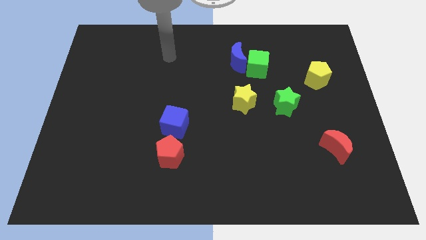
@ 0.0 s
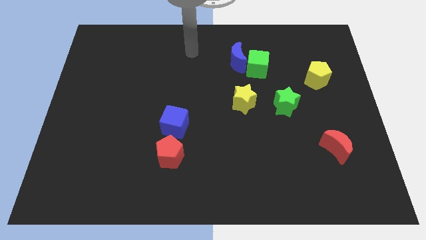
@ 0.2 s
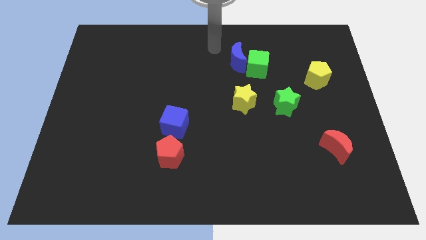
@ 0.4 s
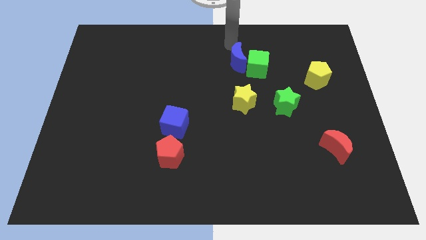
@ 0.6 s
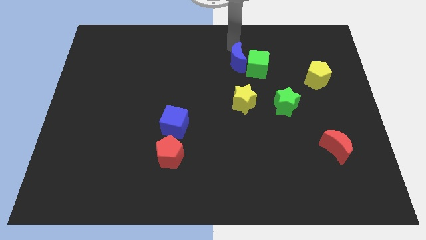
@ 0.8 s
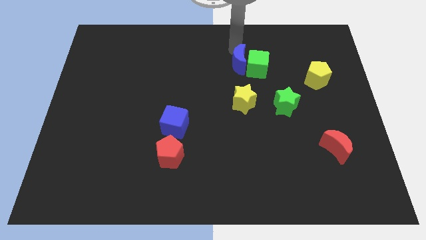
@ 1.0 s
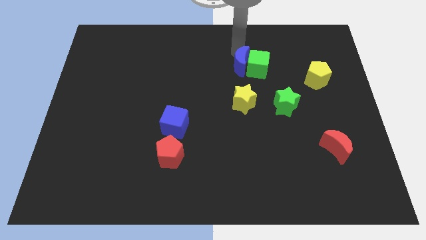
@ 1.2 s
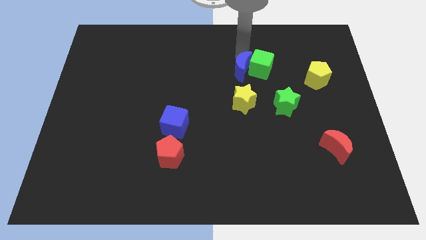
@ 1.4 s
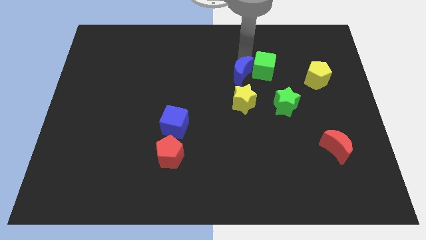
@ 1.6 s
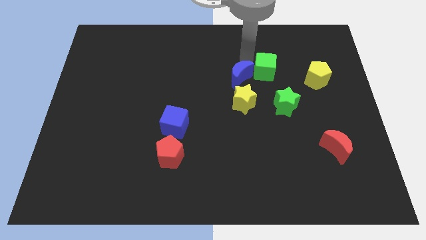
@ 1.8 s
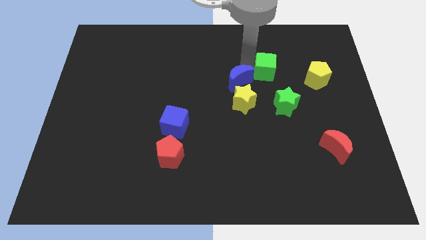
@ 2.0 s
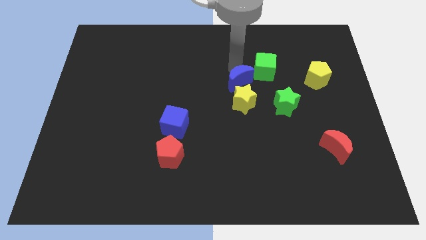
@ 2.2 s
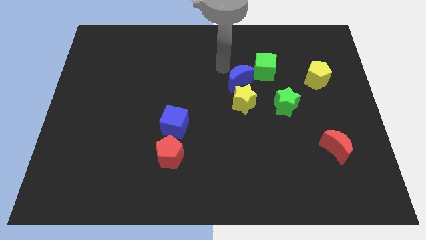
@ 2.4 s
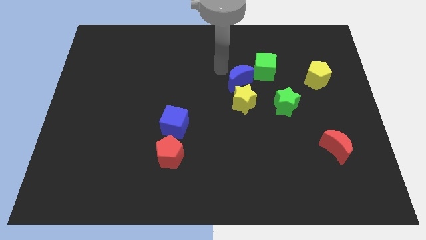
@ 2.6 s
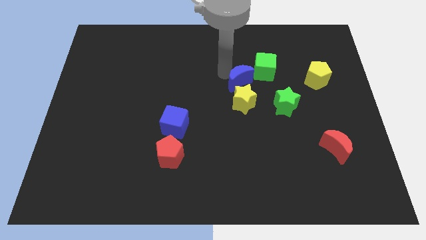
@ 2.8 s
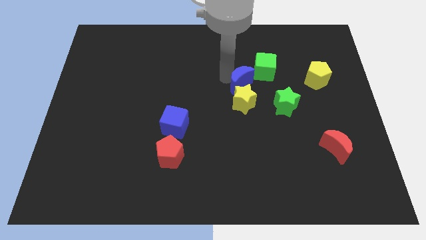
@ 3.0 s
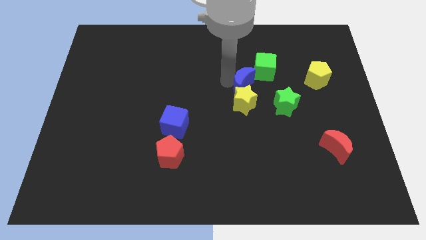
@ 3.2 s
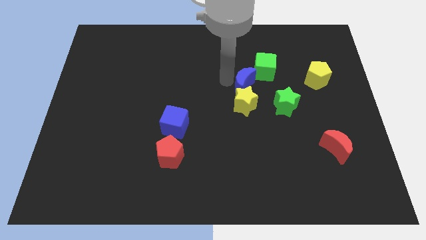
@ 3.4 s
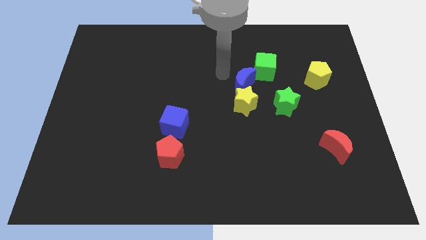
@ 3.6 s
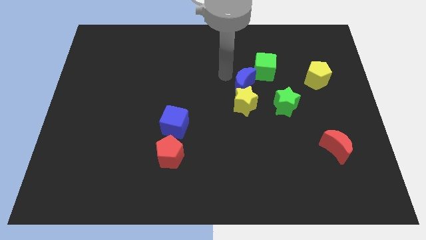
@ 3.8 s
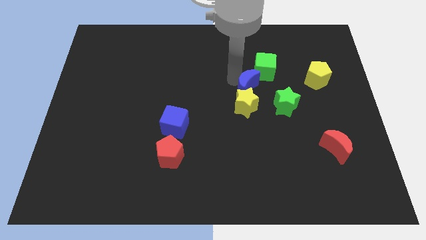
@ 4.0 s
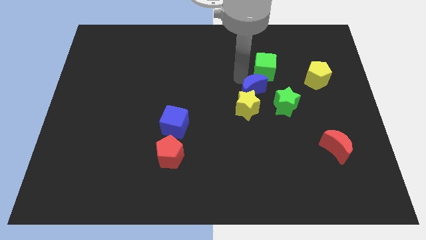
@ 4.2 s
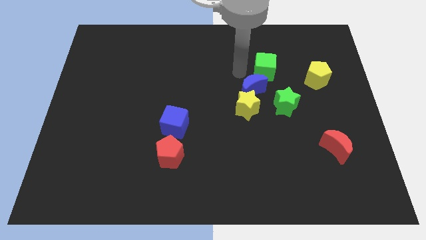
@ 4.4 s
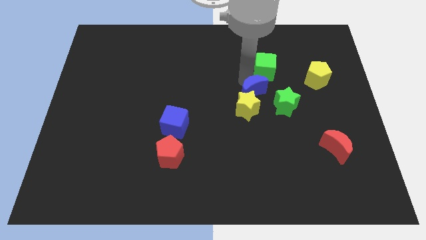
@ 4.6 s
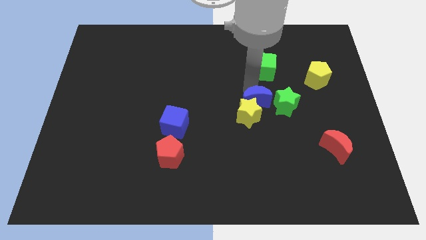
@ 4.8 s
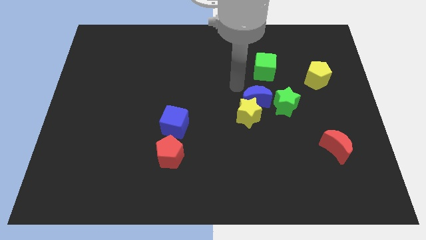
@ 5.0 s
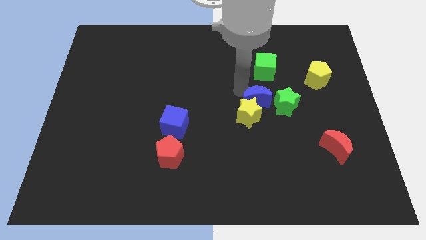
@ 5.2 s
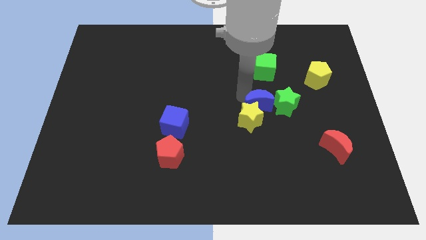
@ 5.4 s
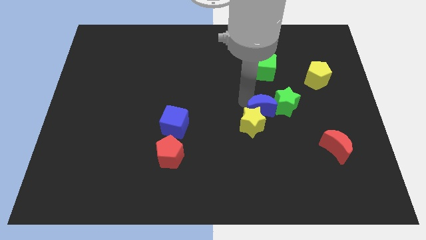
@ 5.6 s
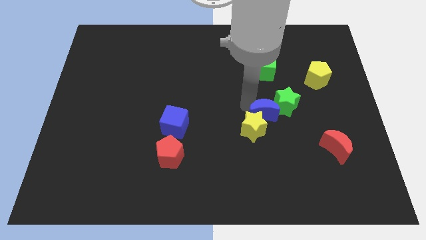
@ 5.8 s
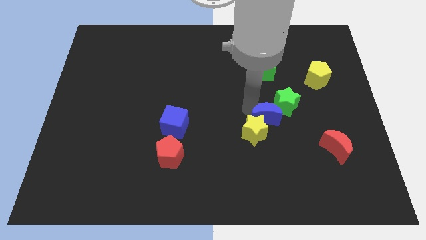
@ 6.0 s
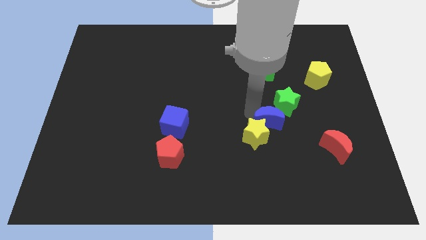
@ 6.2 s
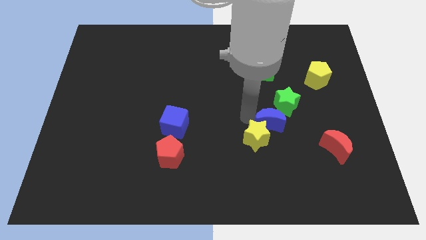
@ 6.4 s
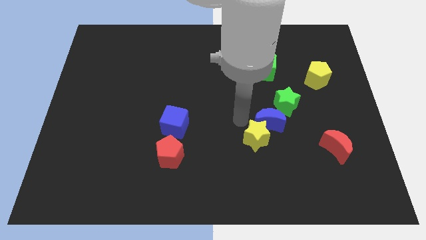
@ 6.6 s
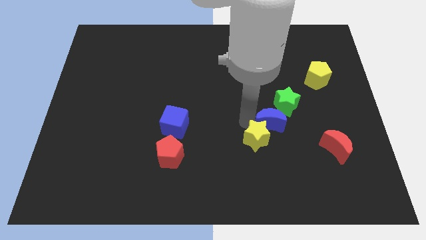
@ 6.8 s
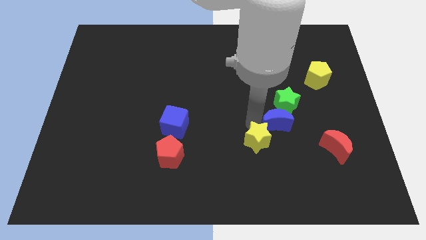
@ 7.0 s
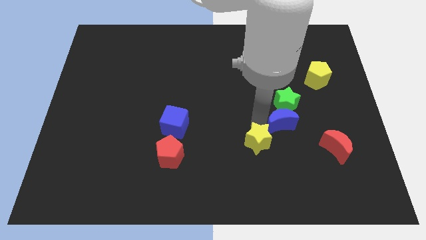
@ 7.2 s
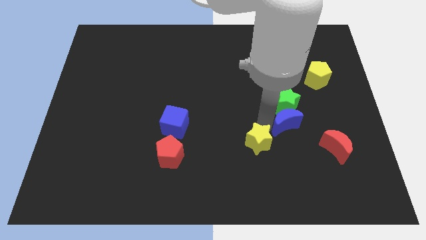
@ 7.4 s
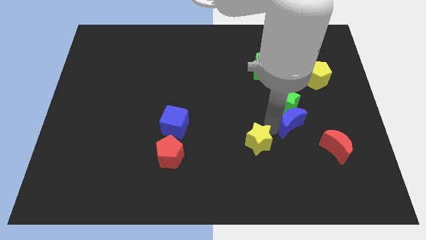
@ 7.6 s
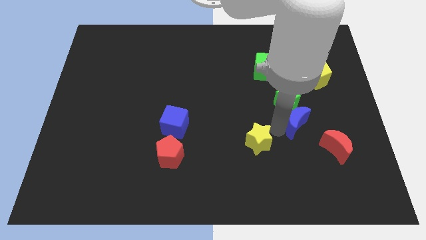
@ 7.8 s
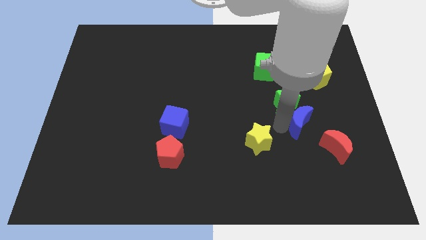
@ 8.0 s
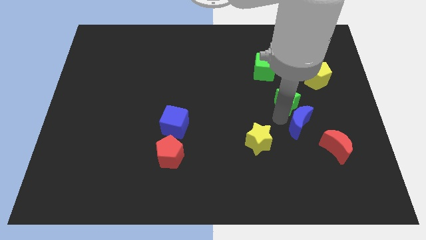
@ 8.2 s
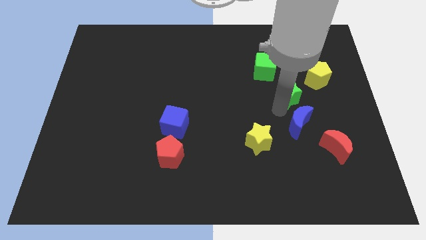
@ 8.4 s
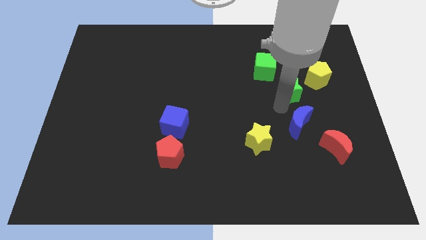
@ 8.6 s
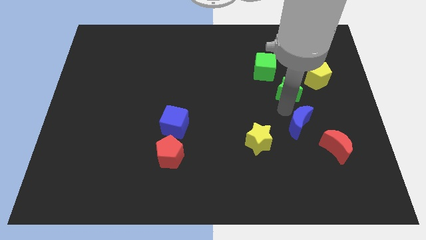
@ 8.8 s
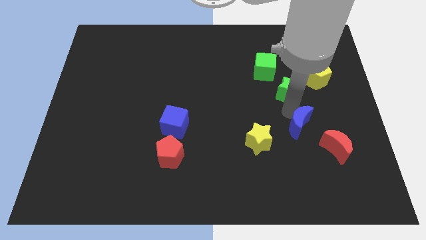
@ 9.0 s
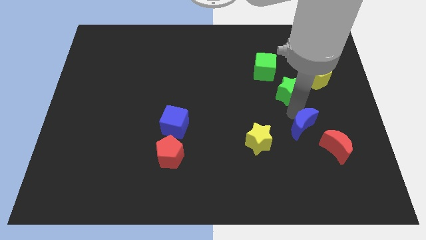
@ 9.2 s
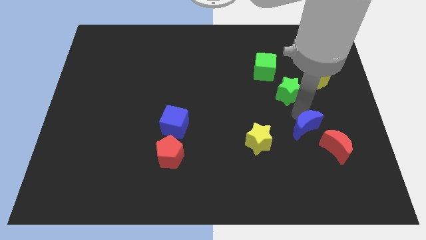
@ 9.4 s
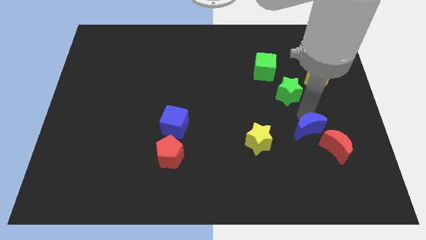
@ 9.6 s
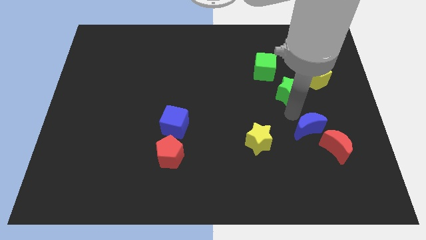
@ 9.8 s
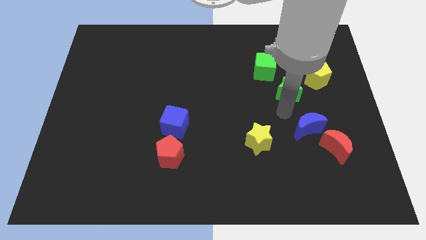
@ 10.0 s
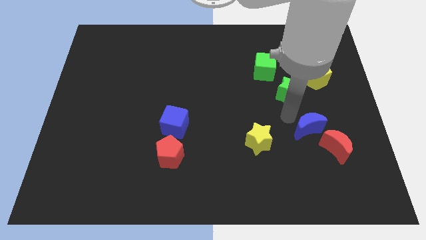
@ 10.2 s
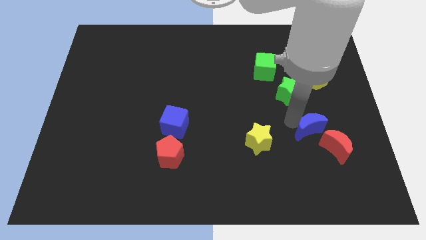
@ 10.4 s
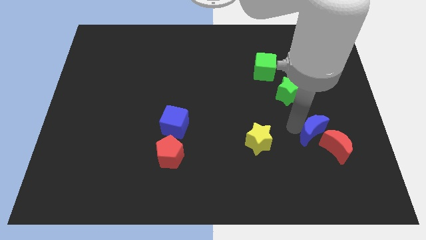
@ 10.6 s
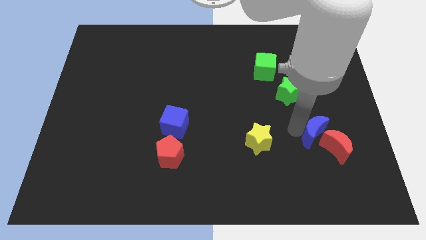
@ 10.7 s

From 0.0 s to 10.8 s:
move the blue moon close to the red moon

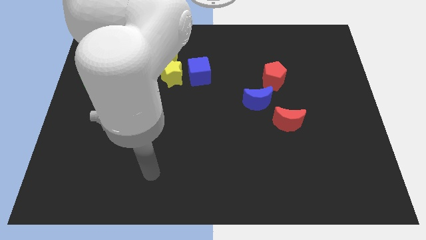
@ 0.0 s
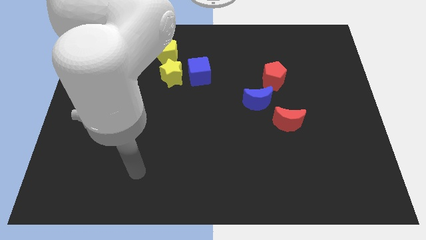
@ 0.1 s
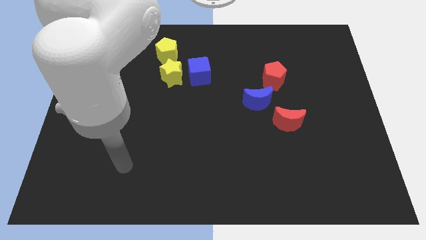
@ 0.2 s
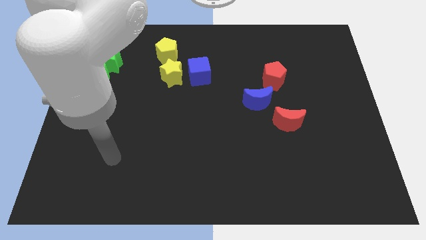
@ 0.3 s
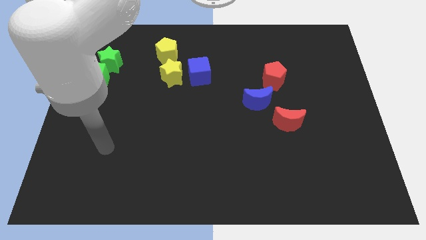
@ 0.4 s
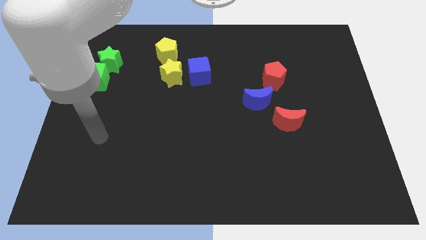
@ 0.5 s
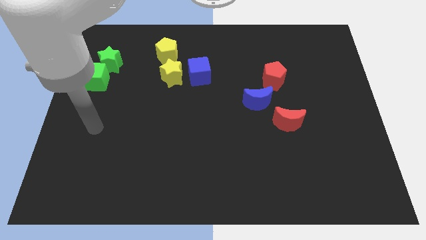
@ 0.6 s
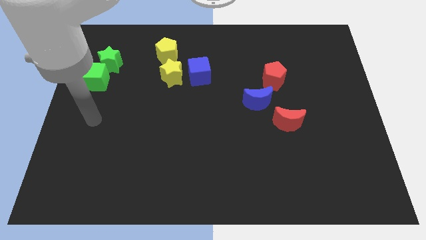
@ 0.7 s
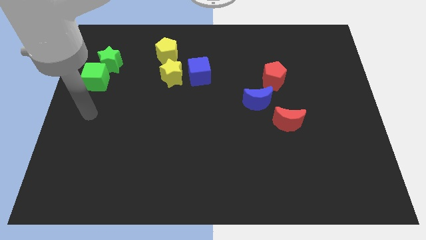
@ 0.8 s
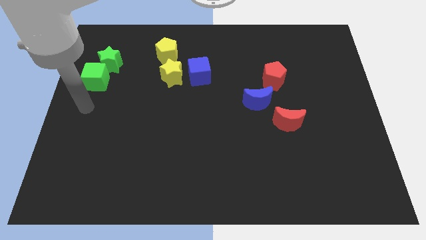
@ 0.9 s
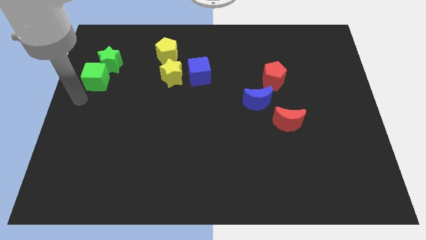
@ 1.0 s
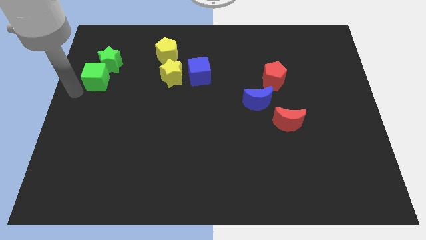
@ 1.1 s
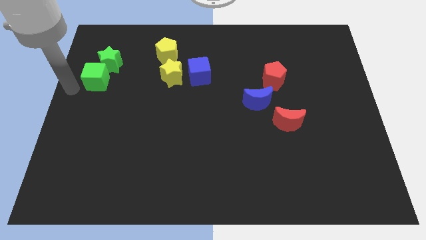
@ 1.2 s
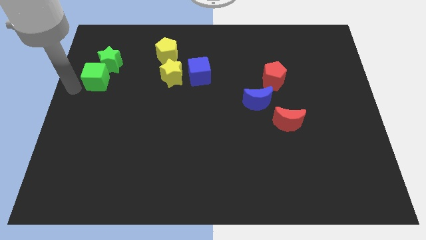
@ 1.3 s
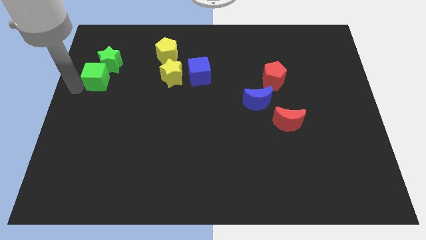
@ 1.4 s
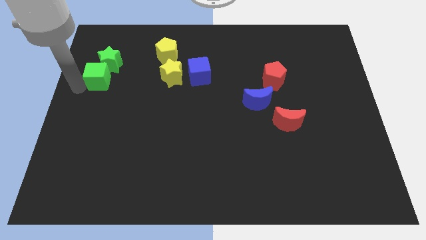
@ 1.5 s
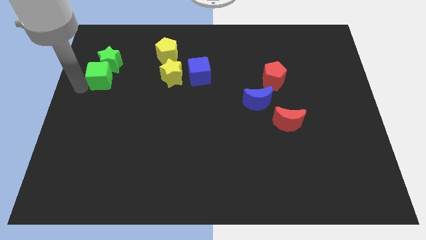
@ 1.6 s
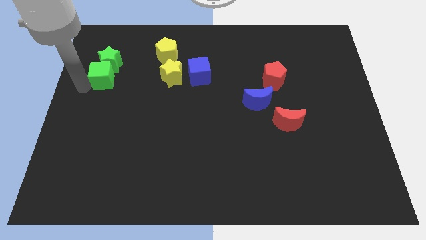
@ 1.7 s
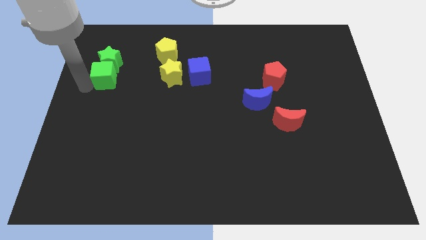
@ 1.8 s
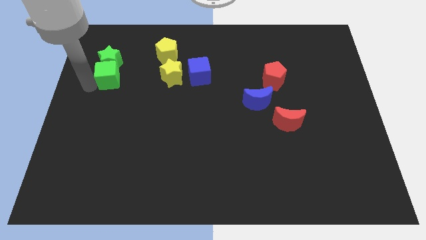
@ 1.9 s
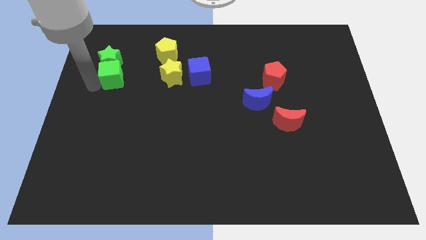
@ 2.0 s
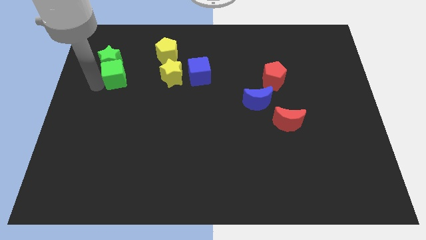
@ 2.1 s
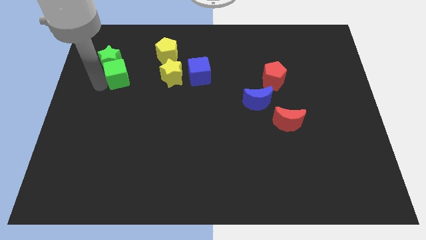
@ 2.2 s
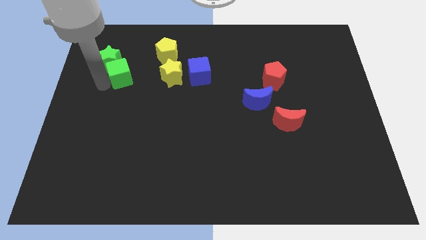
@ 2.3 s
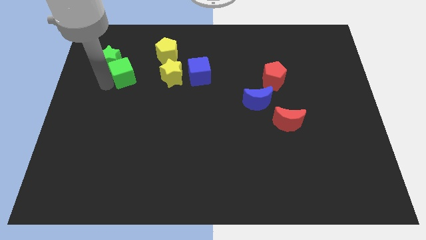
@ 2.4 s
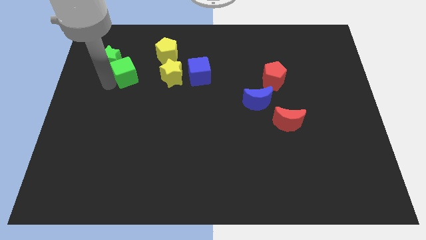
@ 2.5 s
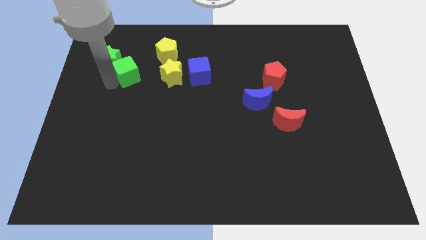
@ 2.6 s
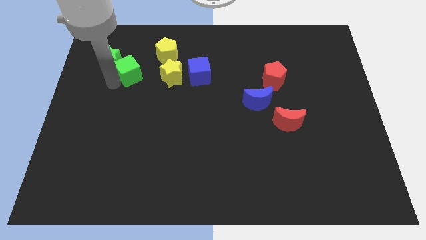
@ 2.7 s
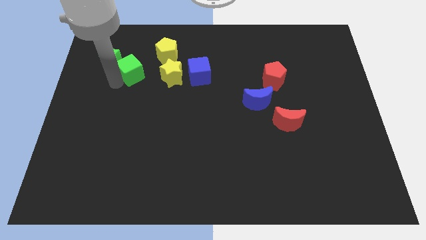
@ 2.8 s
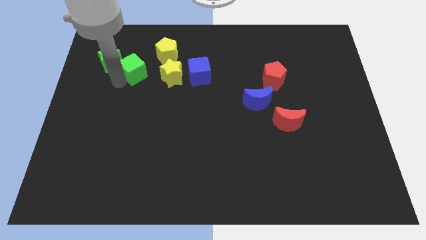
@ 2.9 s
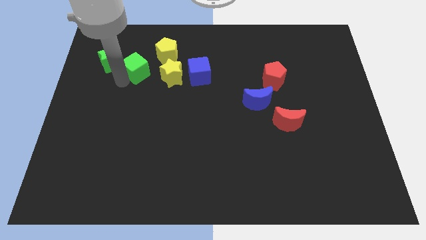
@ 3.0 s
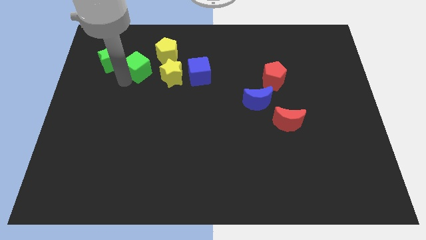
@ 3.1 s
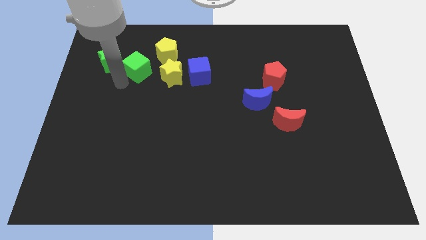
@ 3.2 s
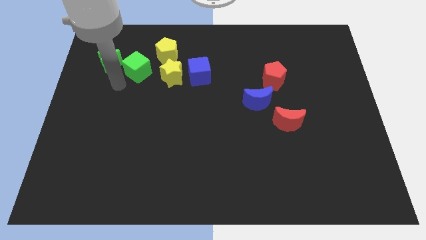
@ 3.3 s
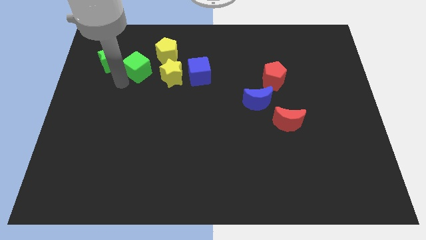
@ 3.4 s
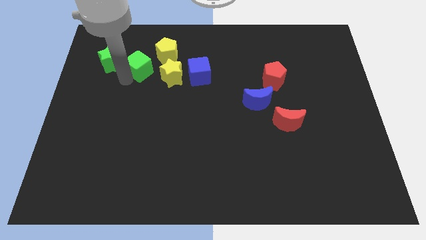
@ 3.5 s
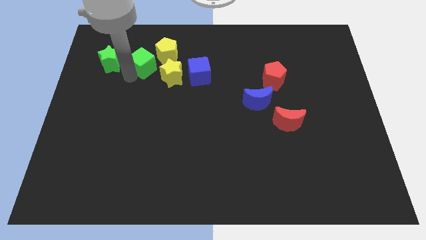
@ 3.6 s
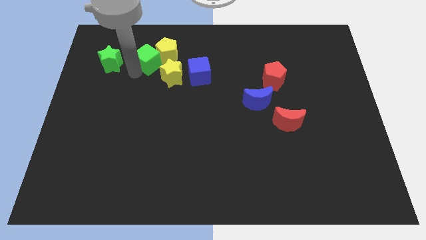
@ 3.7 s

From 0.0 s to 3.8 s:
put the green cube next to the yellow pentagon
